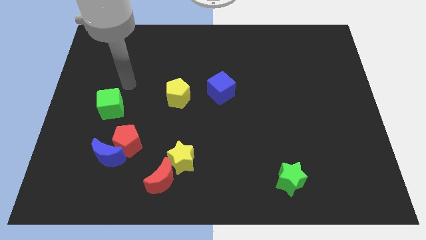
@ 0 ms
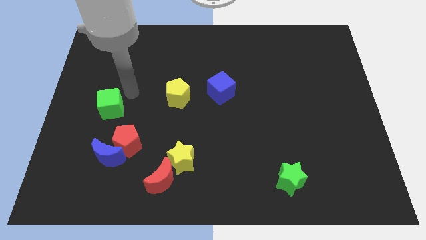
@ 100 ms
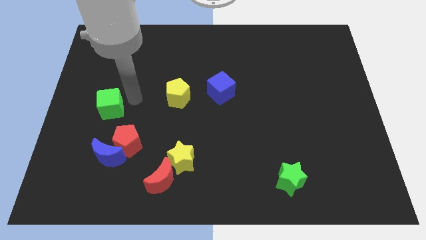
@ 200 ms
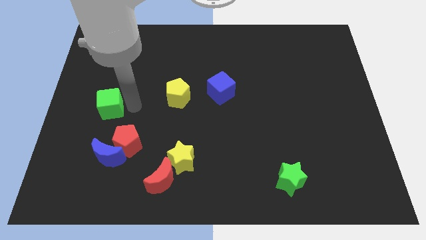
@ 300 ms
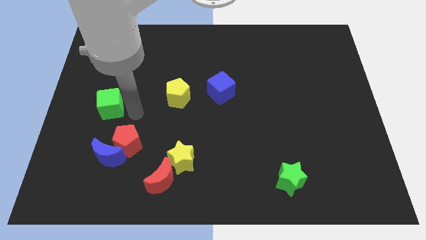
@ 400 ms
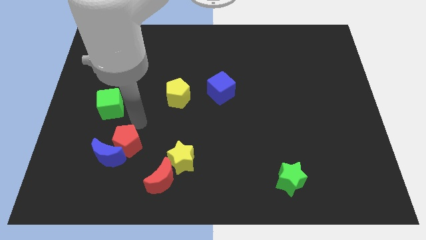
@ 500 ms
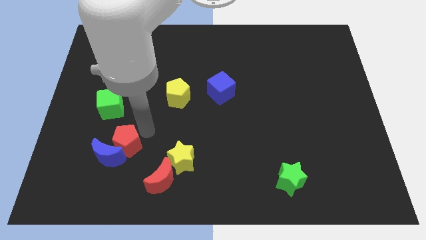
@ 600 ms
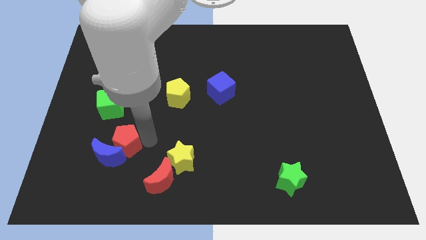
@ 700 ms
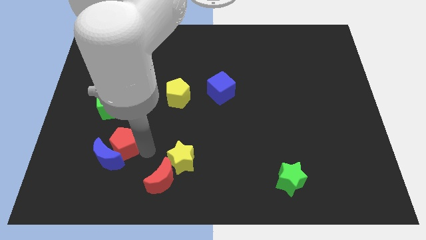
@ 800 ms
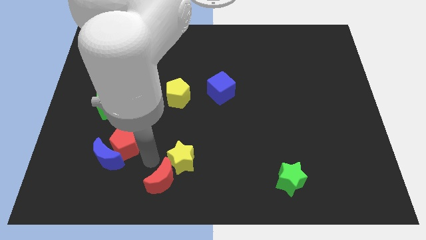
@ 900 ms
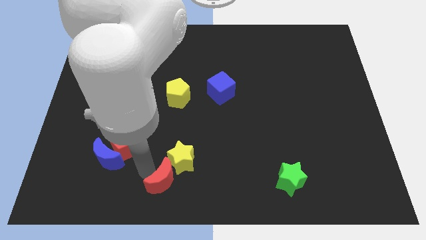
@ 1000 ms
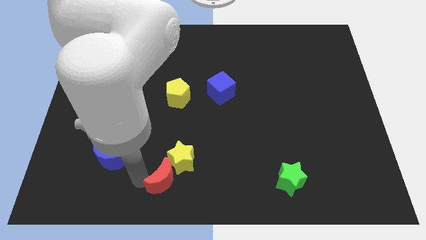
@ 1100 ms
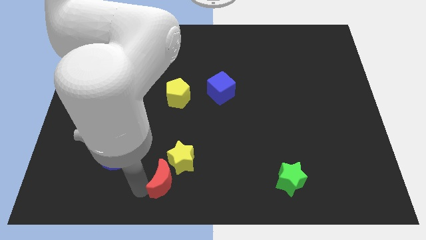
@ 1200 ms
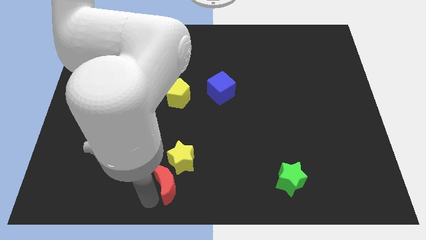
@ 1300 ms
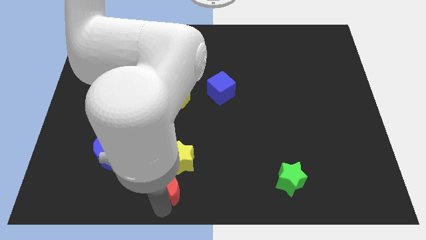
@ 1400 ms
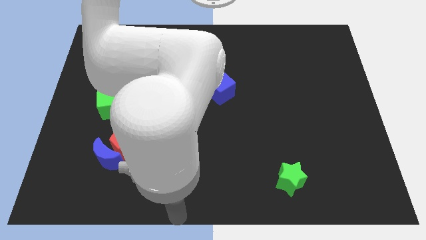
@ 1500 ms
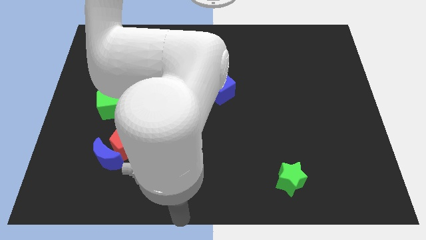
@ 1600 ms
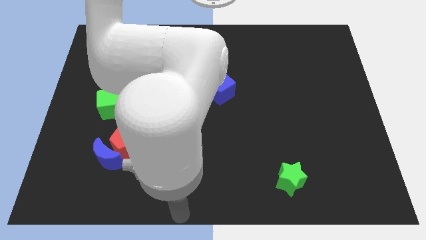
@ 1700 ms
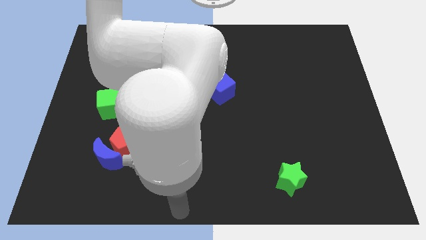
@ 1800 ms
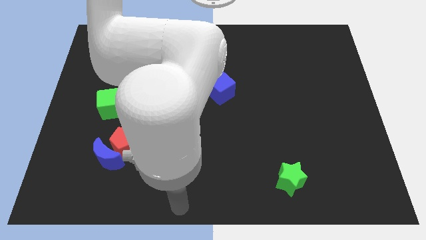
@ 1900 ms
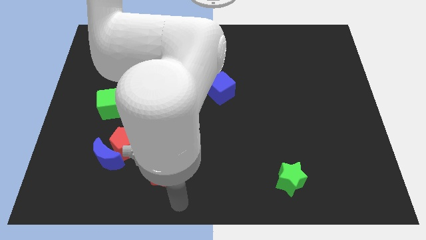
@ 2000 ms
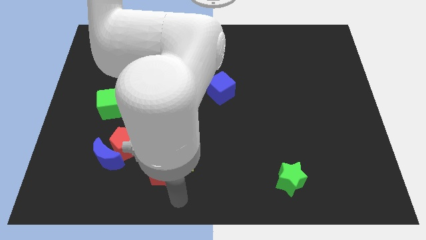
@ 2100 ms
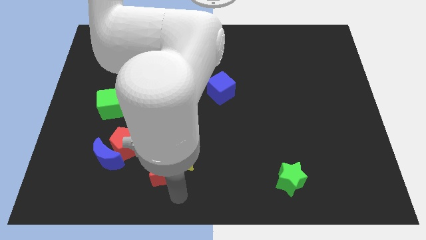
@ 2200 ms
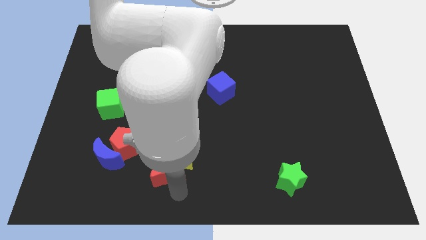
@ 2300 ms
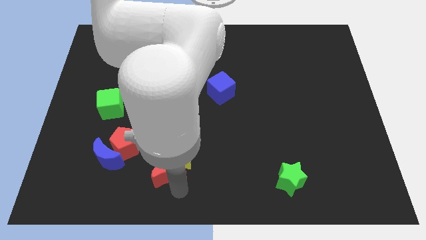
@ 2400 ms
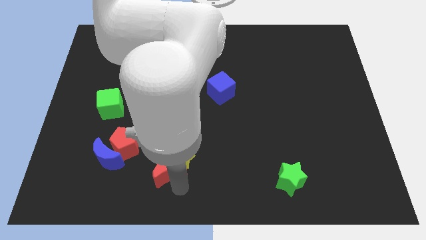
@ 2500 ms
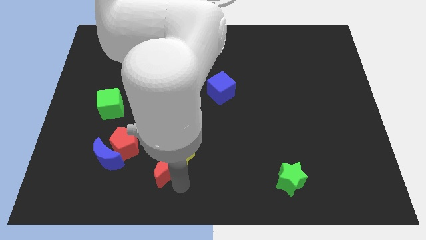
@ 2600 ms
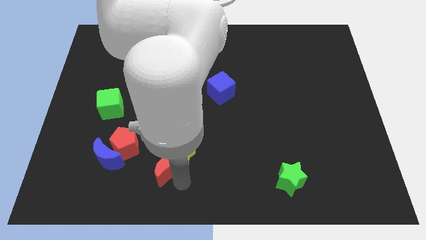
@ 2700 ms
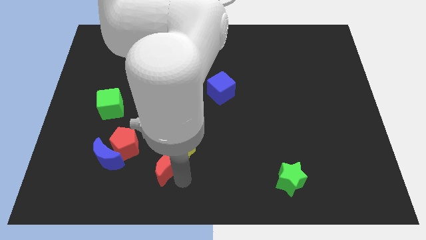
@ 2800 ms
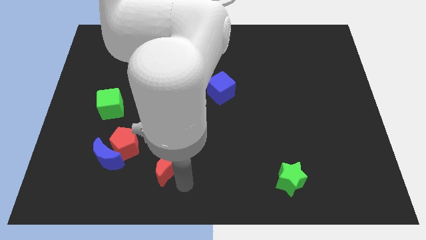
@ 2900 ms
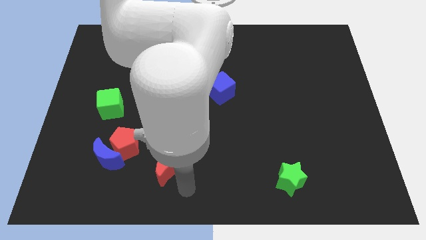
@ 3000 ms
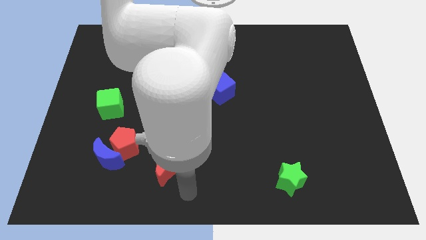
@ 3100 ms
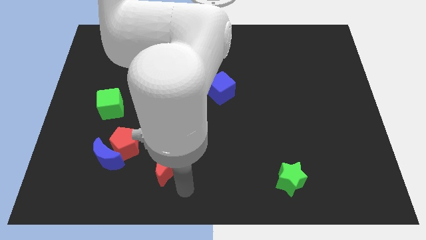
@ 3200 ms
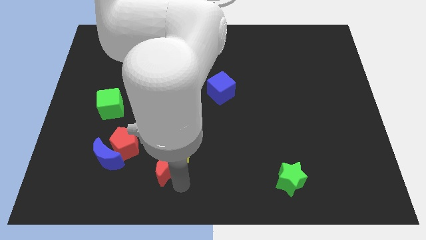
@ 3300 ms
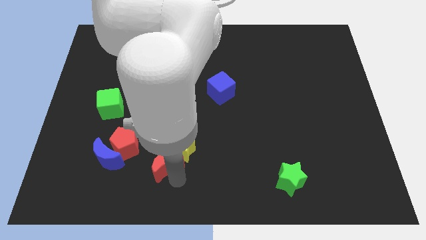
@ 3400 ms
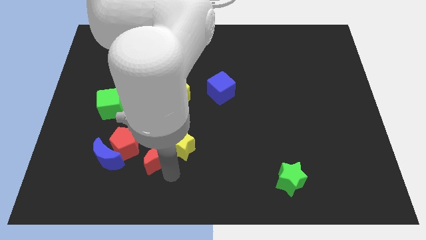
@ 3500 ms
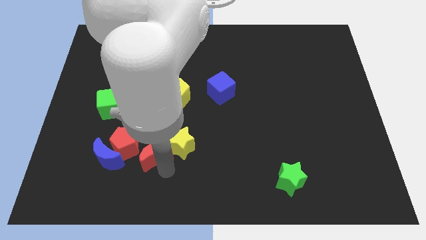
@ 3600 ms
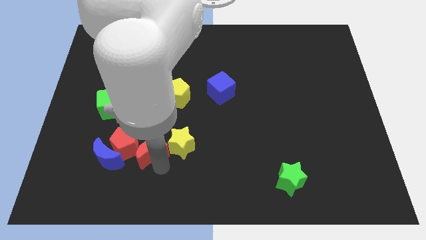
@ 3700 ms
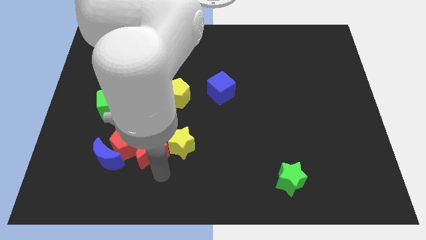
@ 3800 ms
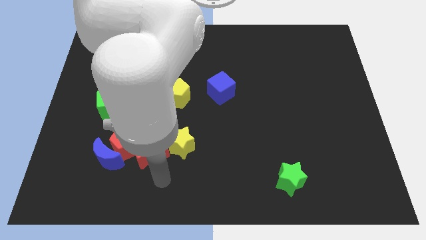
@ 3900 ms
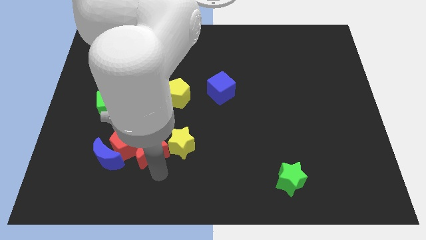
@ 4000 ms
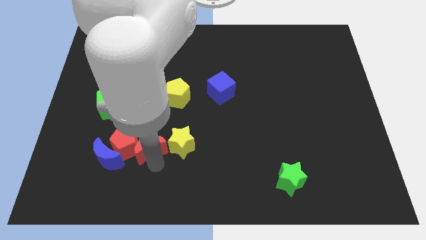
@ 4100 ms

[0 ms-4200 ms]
slide the red moon diagonally up and left a little

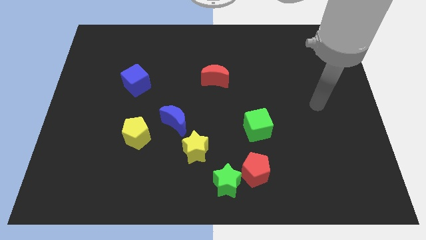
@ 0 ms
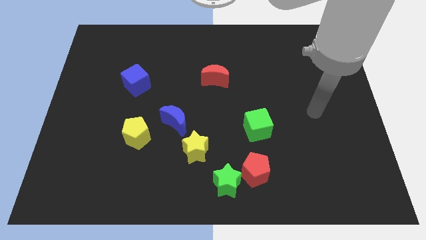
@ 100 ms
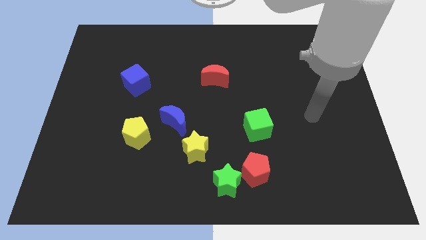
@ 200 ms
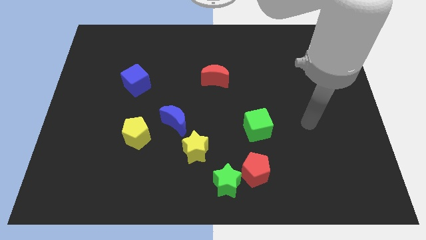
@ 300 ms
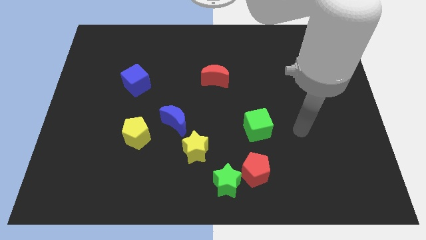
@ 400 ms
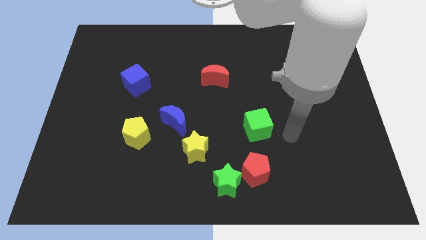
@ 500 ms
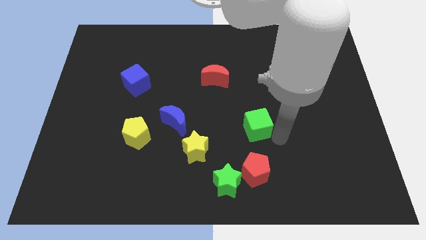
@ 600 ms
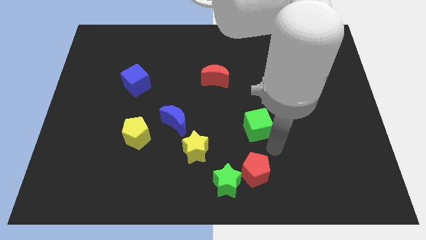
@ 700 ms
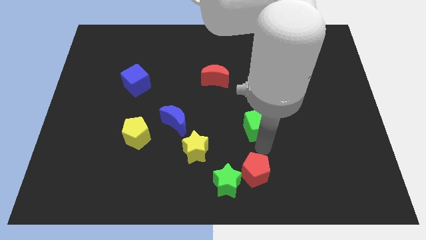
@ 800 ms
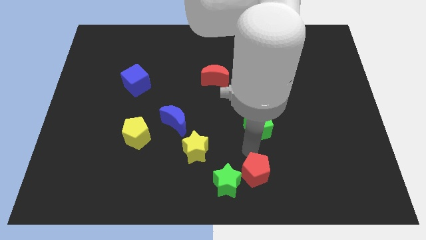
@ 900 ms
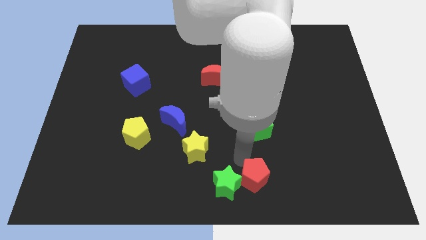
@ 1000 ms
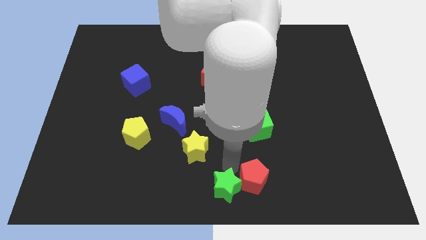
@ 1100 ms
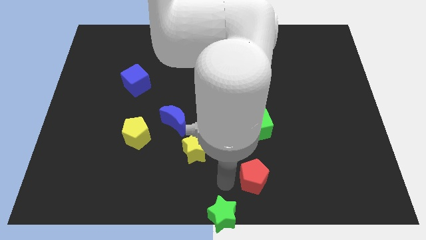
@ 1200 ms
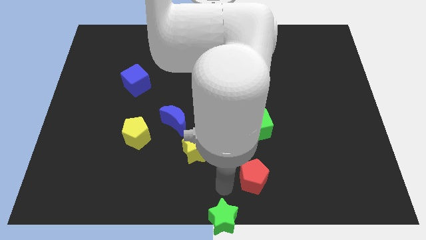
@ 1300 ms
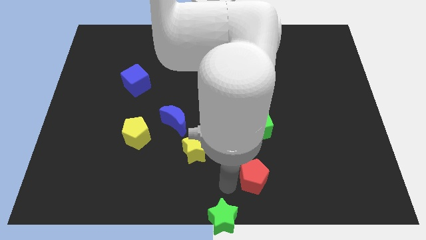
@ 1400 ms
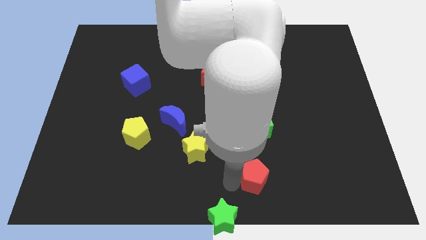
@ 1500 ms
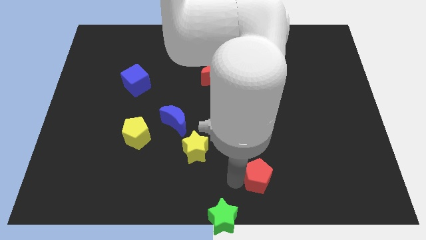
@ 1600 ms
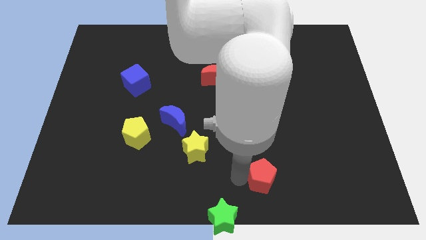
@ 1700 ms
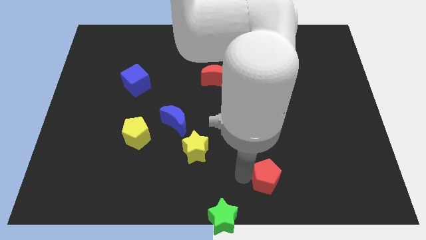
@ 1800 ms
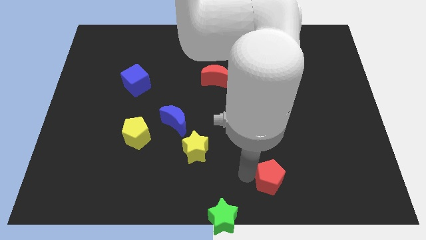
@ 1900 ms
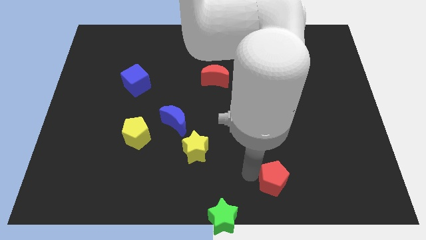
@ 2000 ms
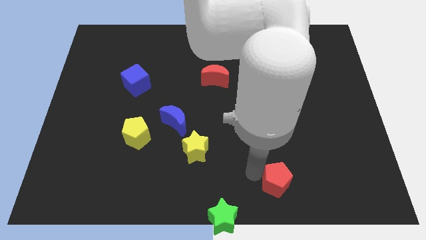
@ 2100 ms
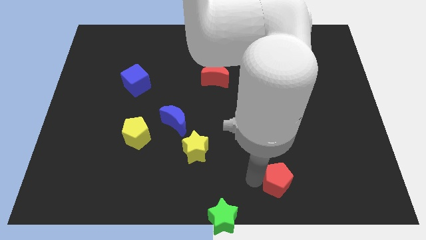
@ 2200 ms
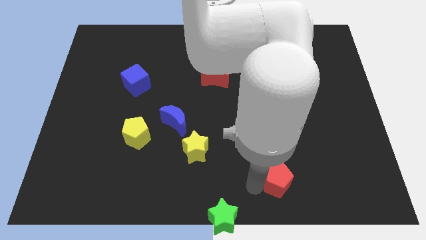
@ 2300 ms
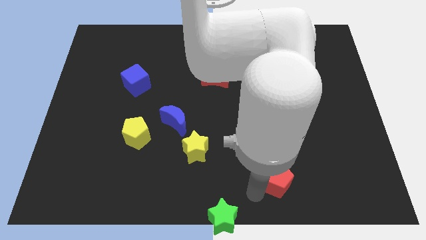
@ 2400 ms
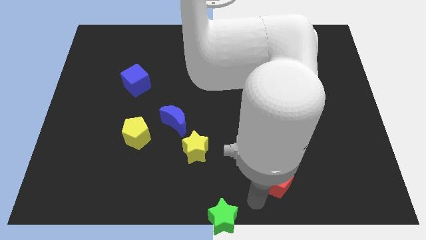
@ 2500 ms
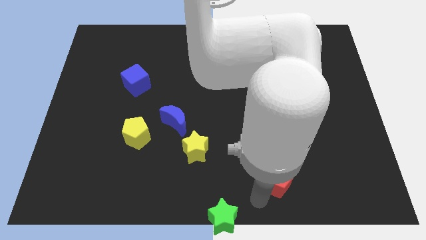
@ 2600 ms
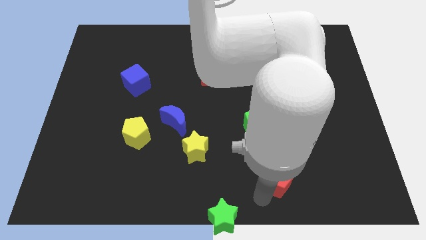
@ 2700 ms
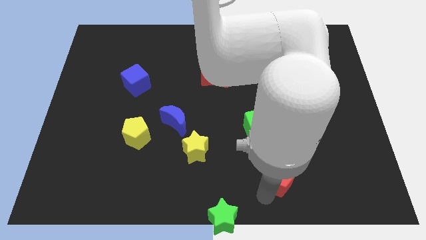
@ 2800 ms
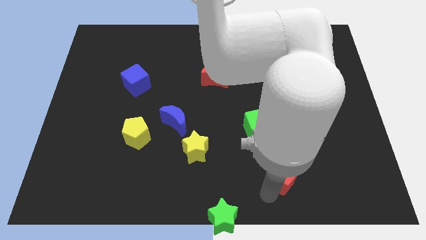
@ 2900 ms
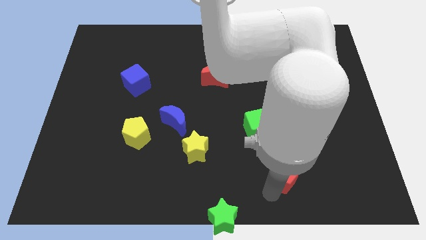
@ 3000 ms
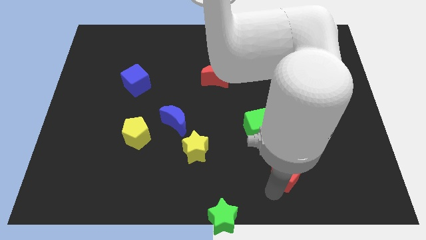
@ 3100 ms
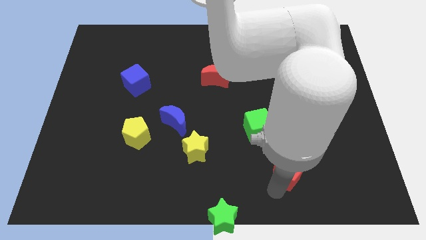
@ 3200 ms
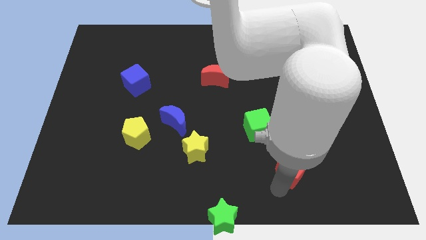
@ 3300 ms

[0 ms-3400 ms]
move the red pentagon somewhat to the right

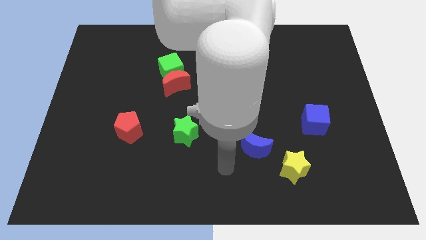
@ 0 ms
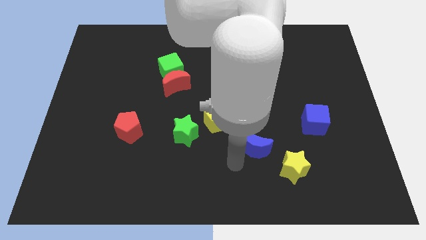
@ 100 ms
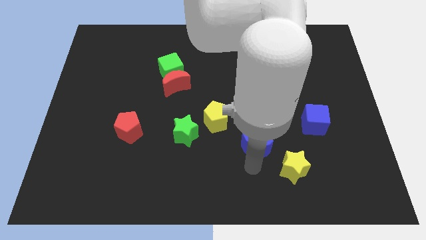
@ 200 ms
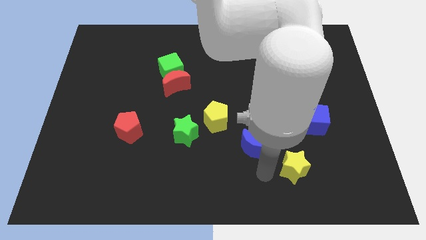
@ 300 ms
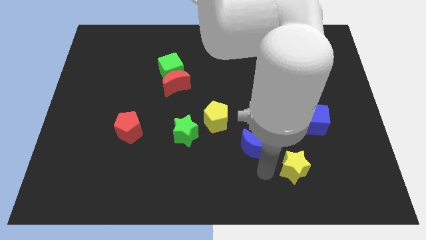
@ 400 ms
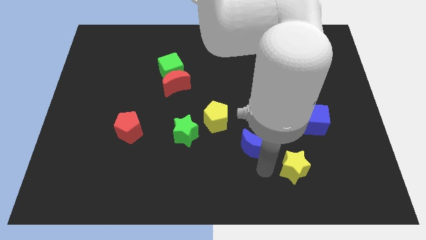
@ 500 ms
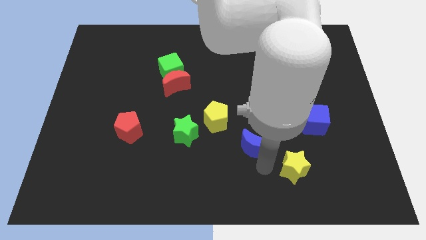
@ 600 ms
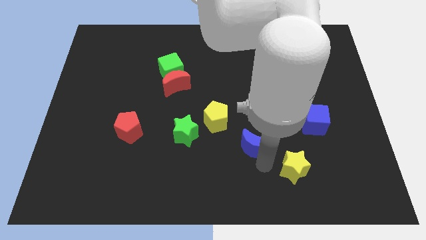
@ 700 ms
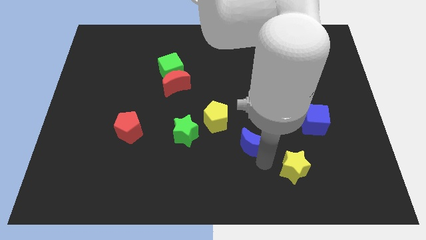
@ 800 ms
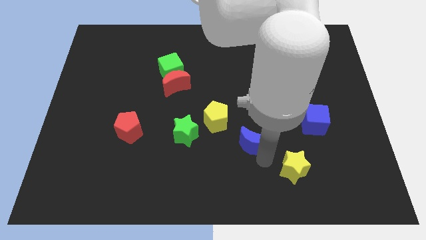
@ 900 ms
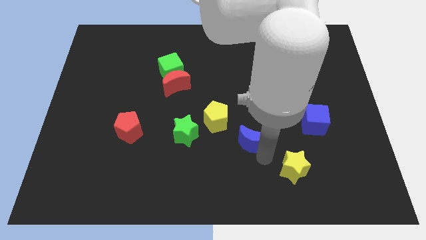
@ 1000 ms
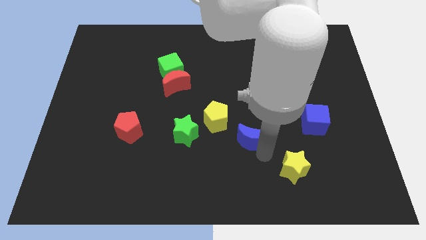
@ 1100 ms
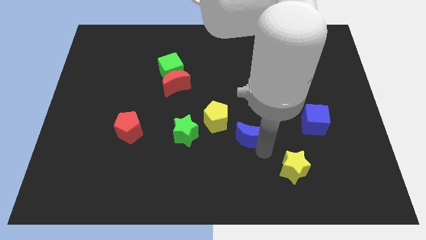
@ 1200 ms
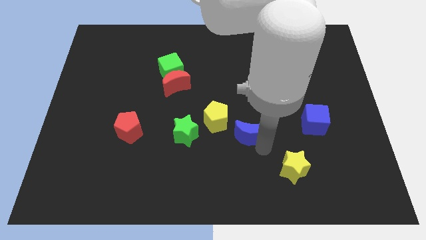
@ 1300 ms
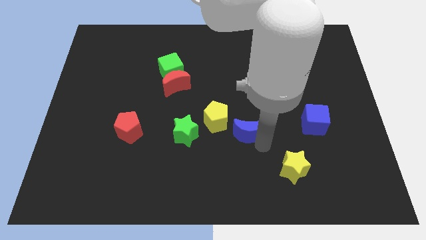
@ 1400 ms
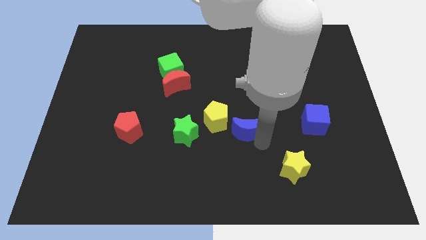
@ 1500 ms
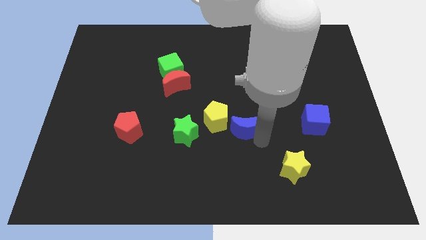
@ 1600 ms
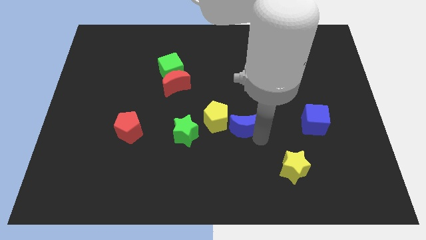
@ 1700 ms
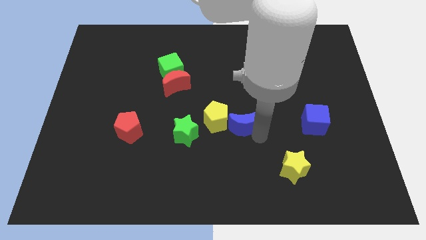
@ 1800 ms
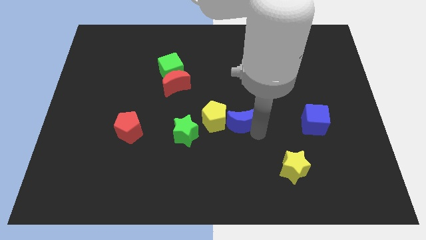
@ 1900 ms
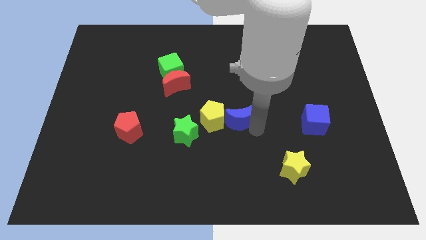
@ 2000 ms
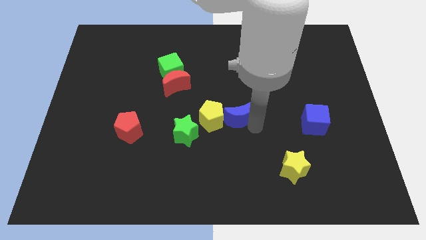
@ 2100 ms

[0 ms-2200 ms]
move the blue moon a little bit up and to the left diagonally
